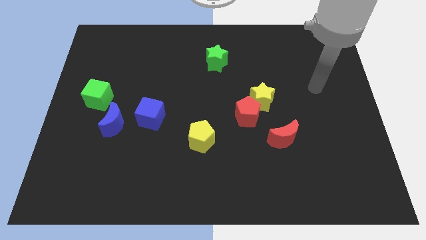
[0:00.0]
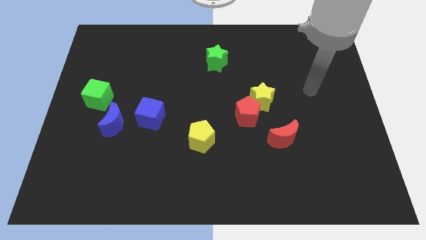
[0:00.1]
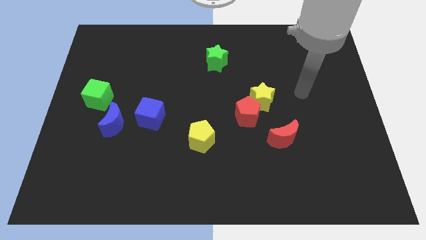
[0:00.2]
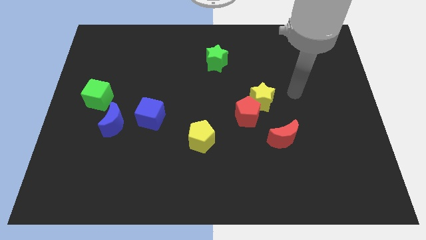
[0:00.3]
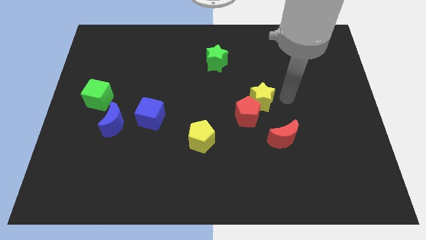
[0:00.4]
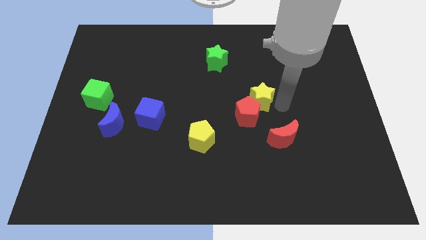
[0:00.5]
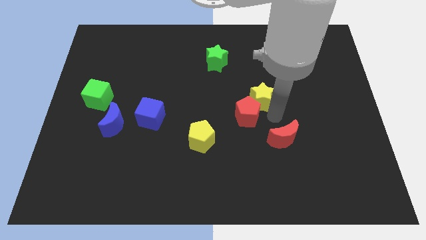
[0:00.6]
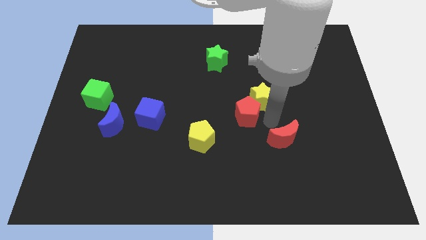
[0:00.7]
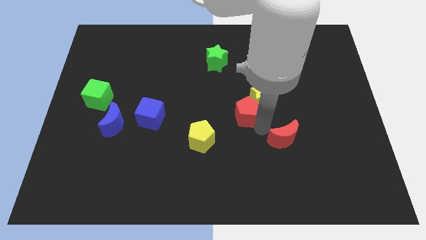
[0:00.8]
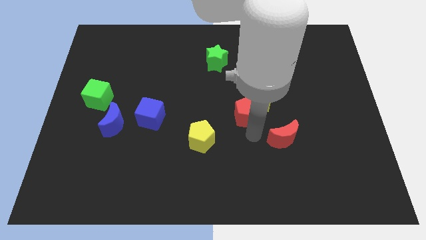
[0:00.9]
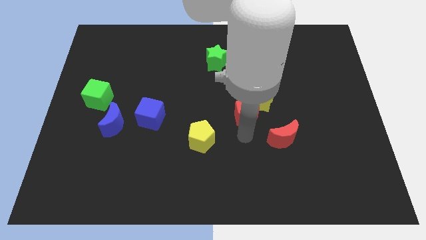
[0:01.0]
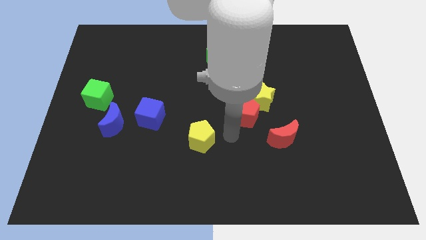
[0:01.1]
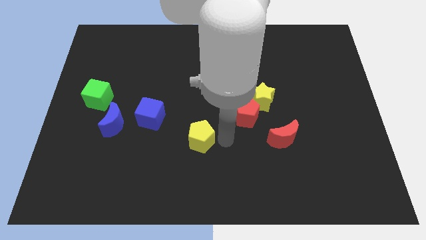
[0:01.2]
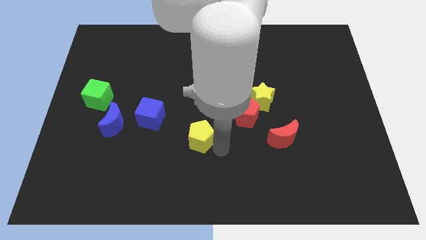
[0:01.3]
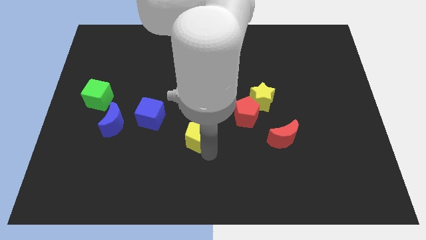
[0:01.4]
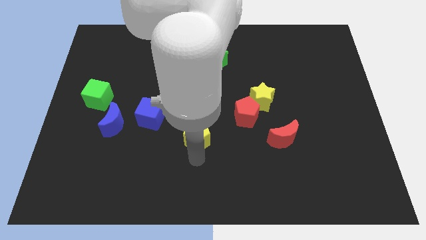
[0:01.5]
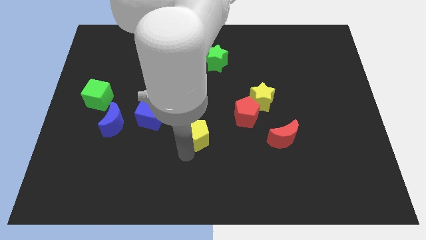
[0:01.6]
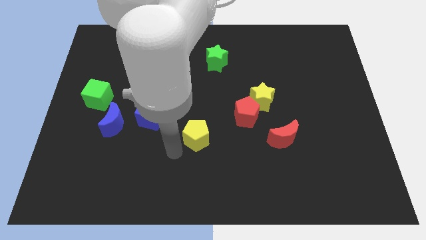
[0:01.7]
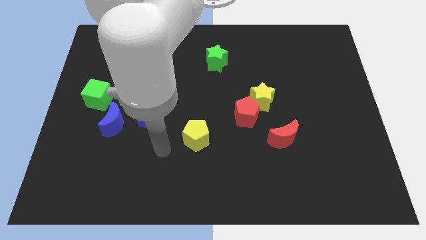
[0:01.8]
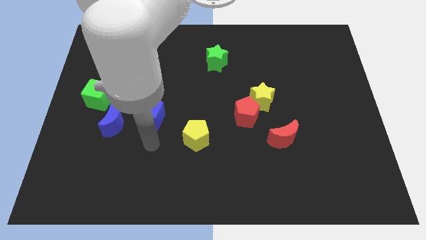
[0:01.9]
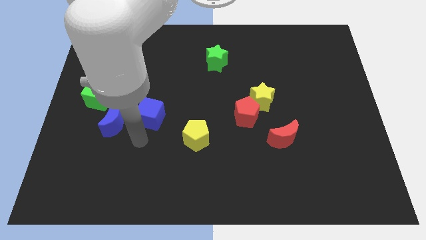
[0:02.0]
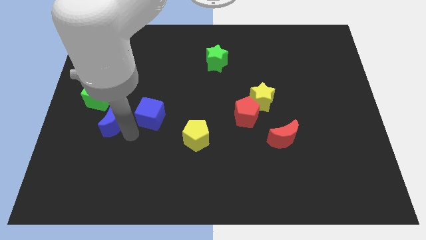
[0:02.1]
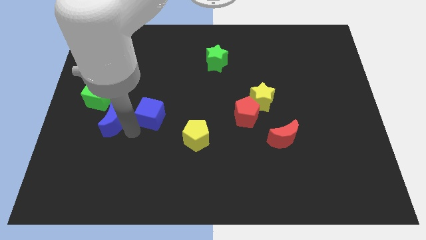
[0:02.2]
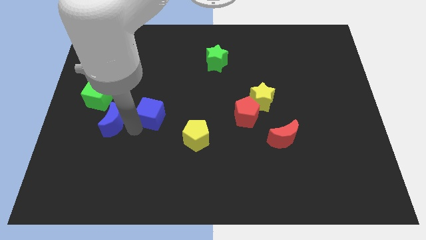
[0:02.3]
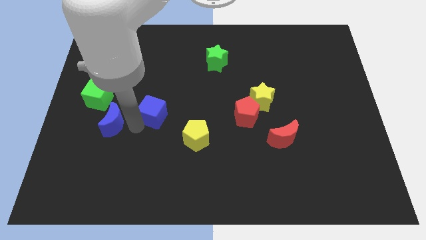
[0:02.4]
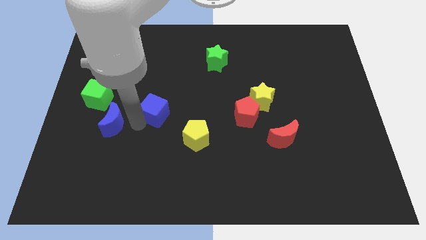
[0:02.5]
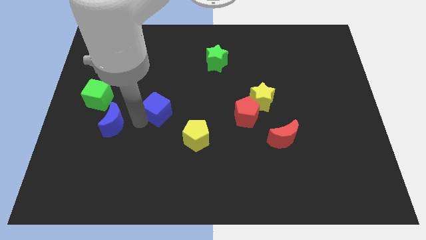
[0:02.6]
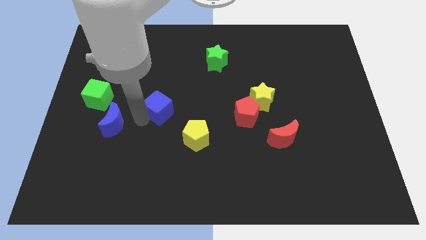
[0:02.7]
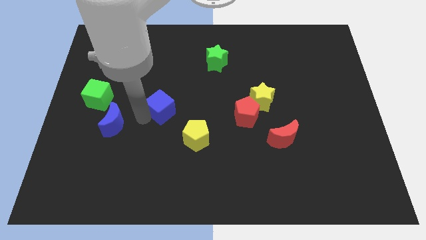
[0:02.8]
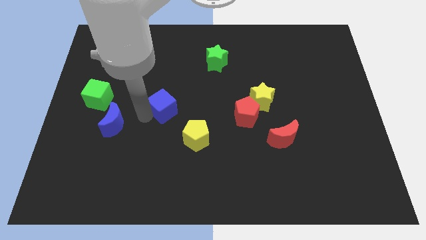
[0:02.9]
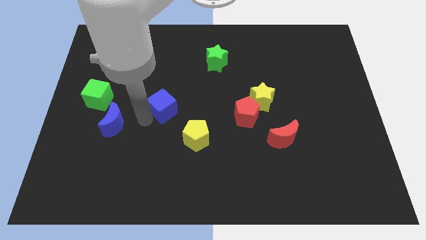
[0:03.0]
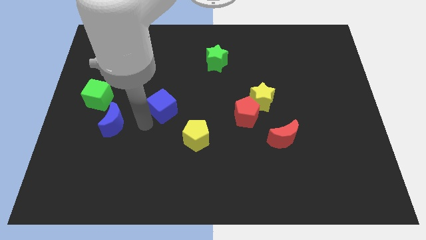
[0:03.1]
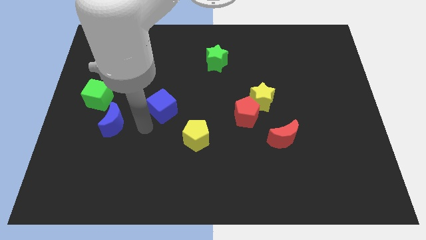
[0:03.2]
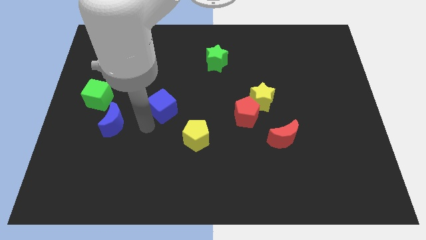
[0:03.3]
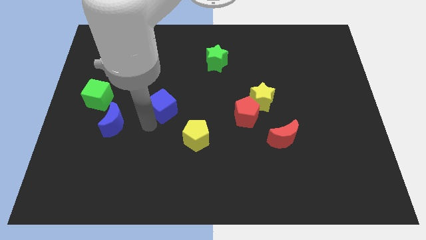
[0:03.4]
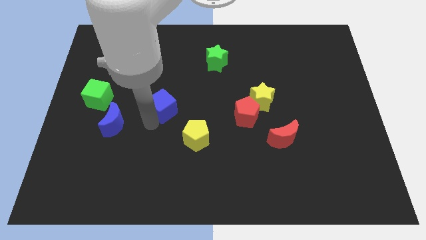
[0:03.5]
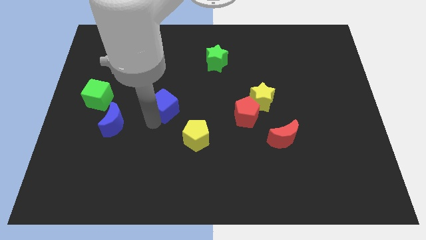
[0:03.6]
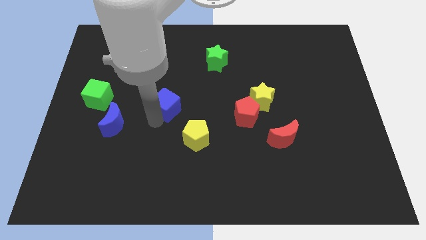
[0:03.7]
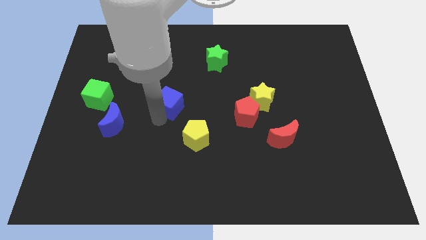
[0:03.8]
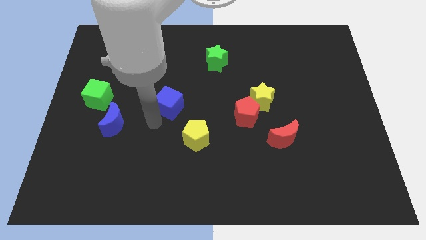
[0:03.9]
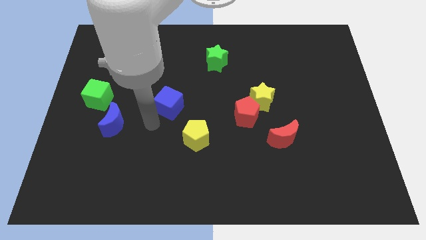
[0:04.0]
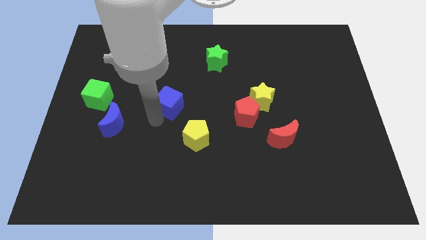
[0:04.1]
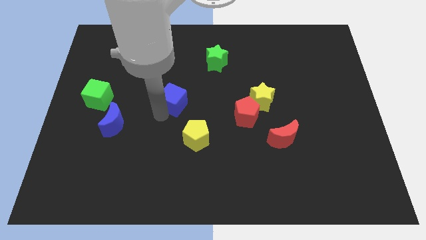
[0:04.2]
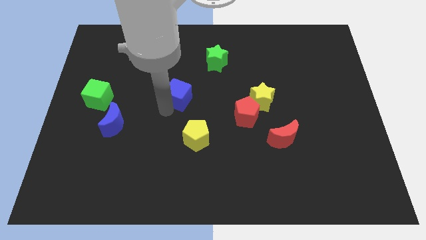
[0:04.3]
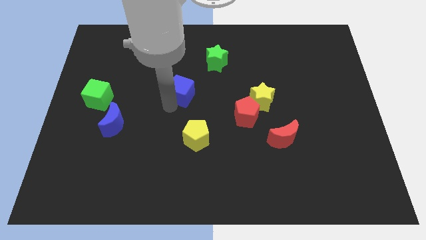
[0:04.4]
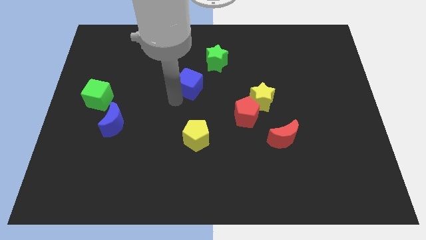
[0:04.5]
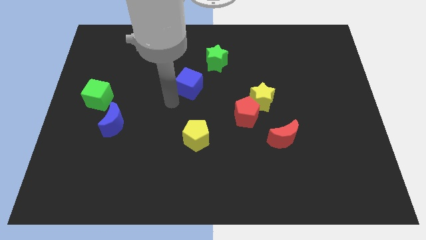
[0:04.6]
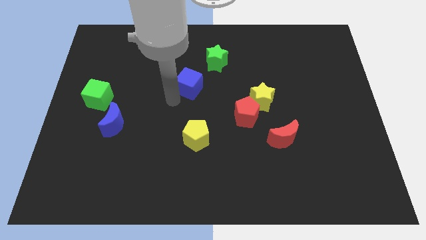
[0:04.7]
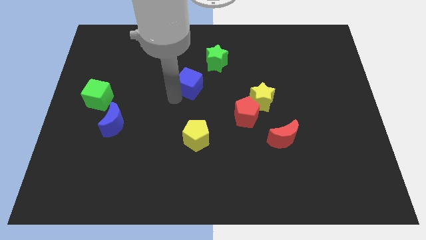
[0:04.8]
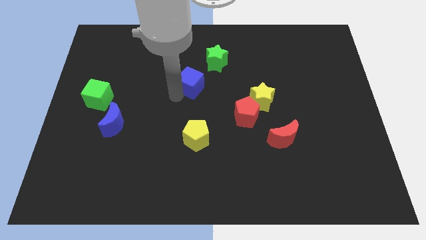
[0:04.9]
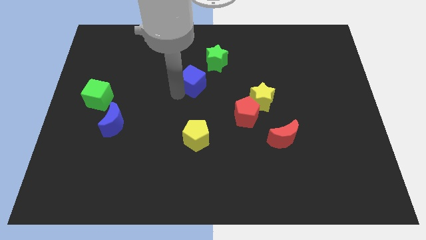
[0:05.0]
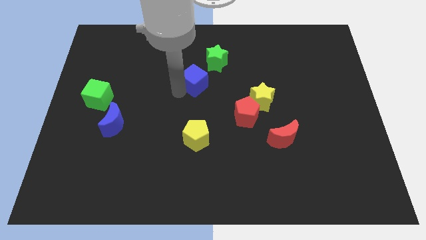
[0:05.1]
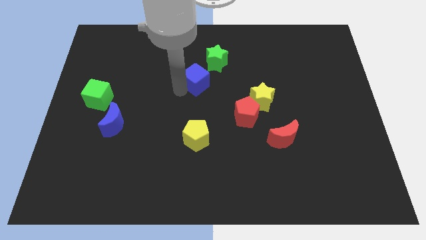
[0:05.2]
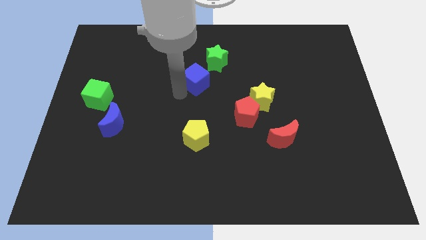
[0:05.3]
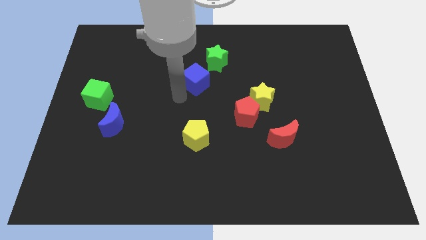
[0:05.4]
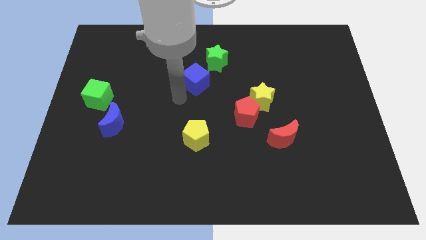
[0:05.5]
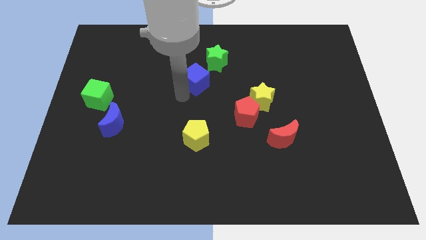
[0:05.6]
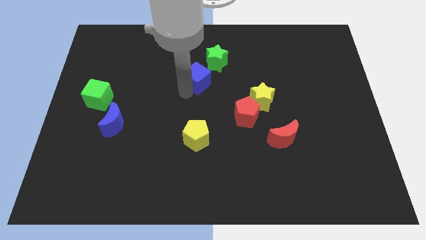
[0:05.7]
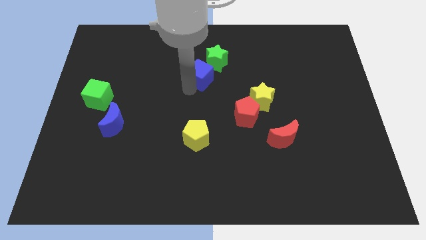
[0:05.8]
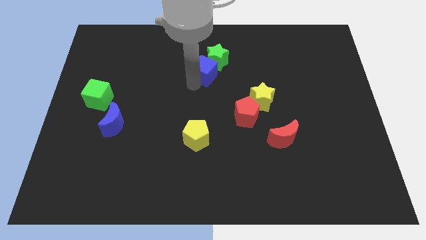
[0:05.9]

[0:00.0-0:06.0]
push the blue cube close to the green star

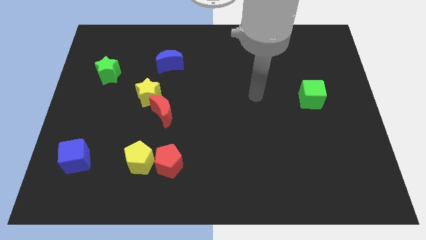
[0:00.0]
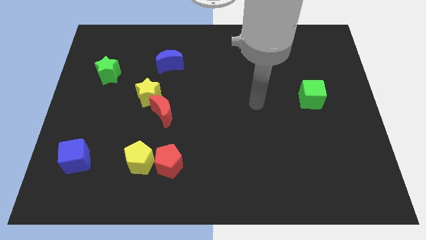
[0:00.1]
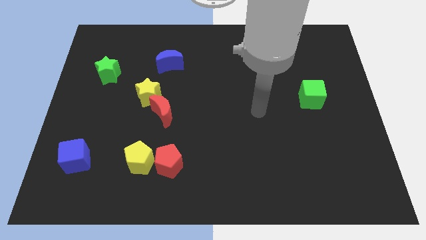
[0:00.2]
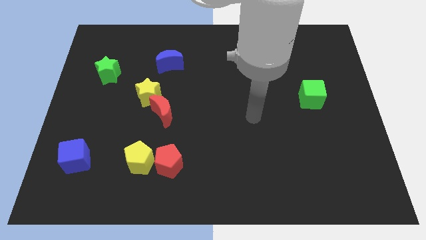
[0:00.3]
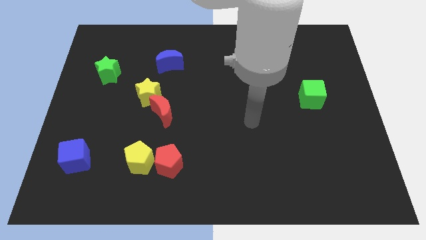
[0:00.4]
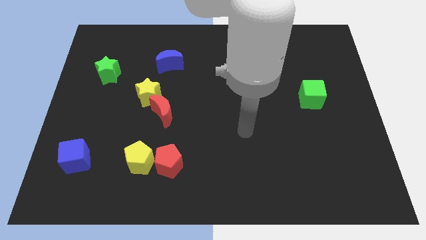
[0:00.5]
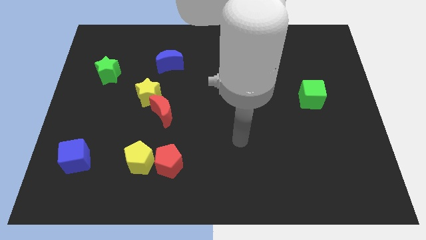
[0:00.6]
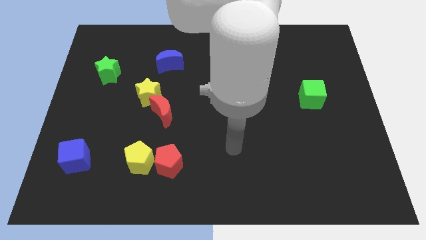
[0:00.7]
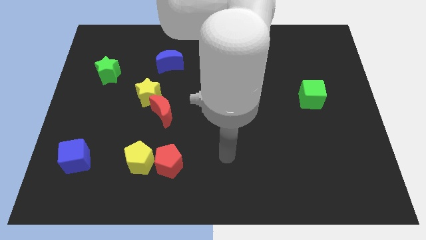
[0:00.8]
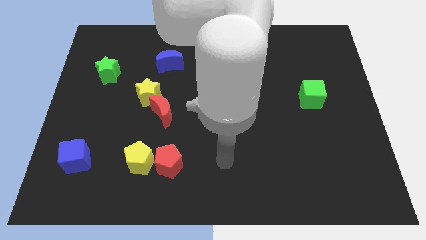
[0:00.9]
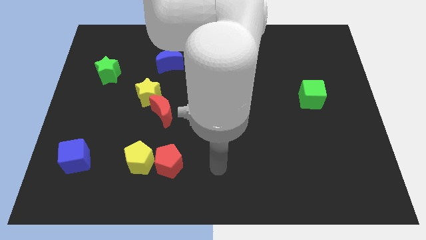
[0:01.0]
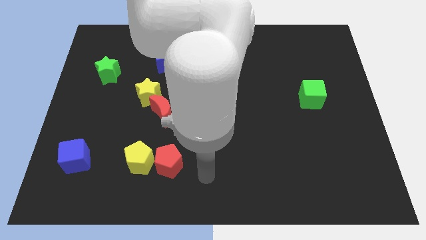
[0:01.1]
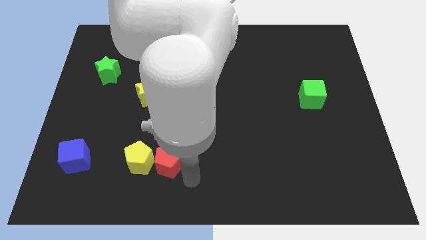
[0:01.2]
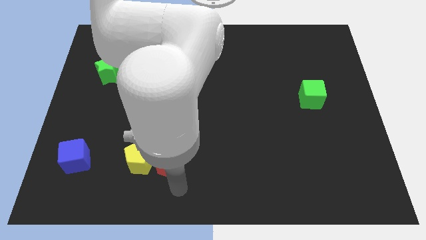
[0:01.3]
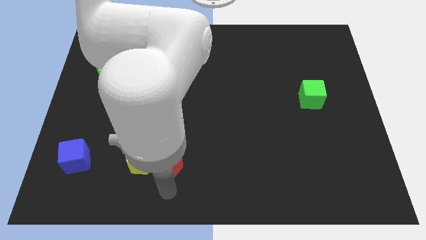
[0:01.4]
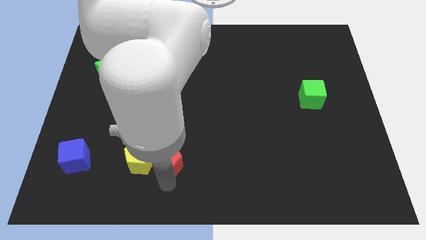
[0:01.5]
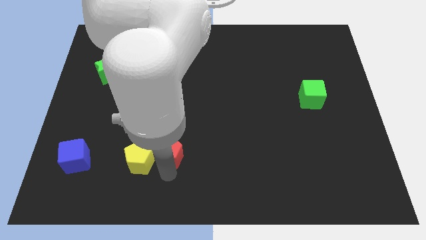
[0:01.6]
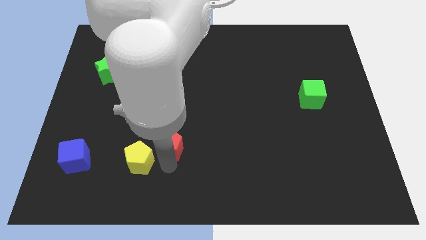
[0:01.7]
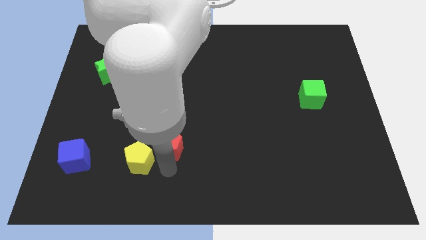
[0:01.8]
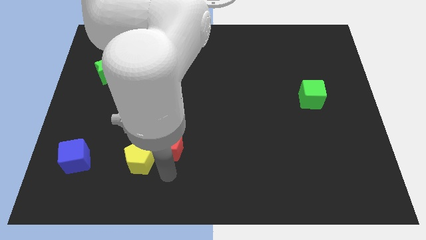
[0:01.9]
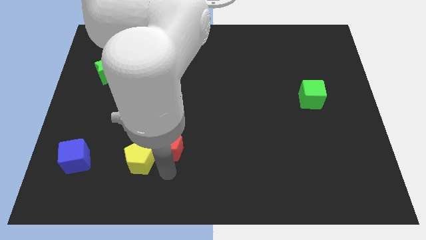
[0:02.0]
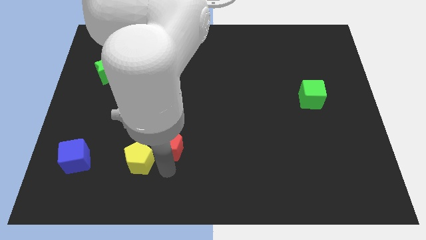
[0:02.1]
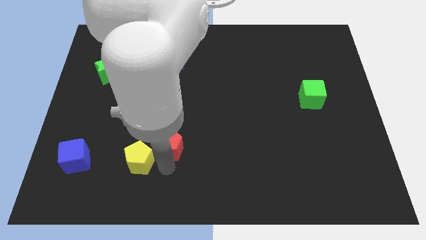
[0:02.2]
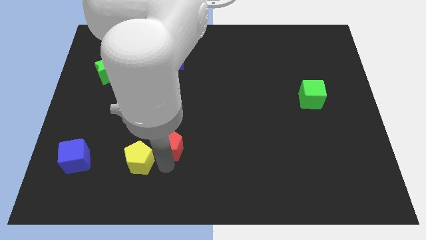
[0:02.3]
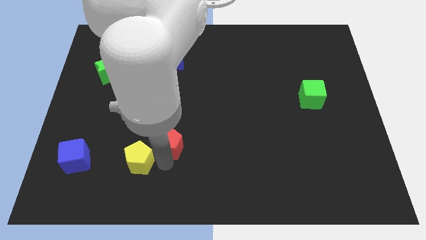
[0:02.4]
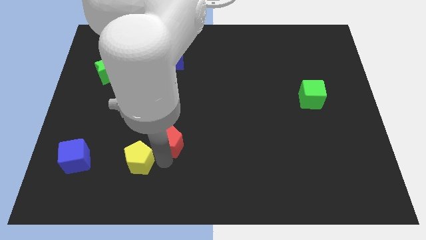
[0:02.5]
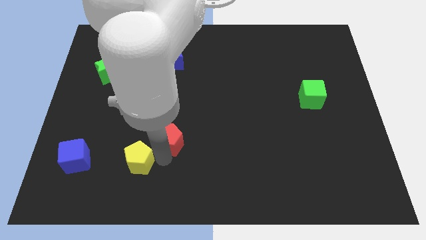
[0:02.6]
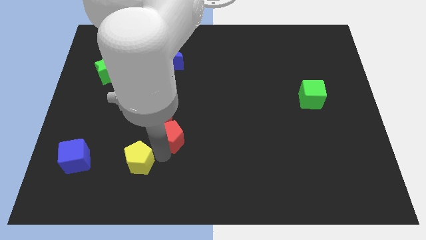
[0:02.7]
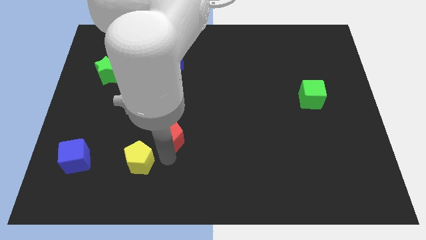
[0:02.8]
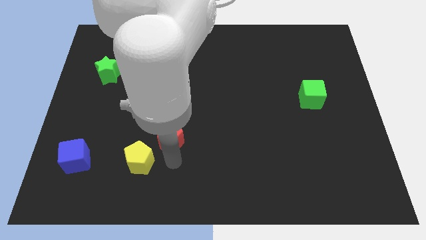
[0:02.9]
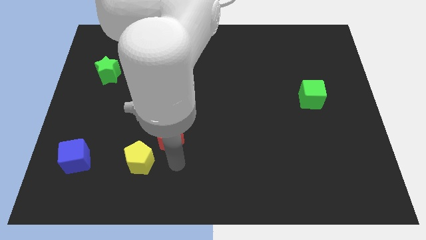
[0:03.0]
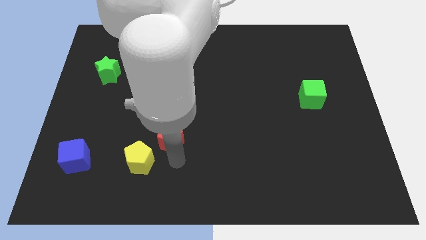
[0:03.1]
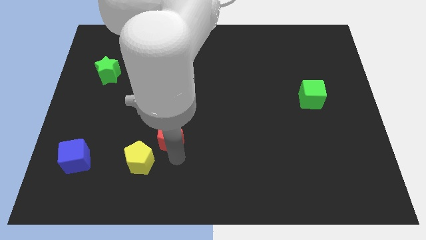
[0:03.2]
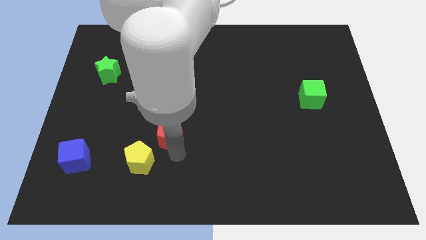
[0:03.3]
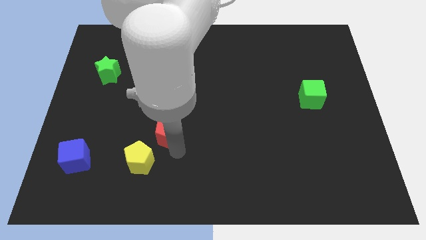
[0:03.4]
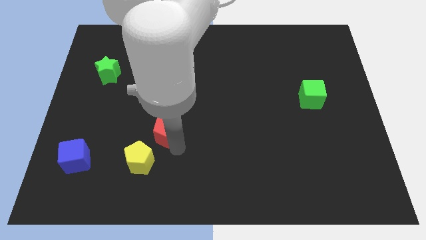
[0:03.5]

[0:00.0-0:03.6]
put the red pentagon to the red moon
